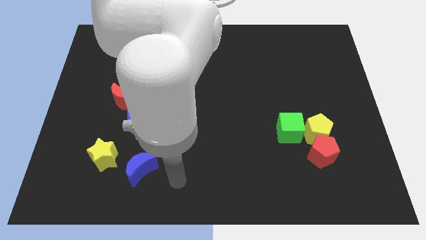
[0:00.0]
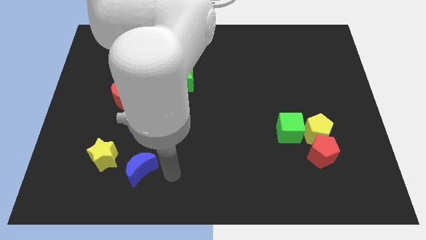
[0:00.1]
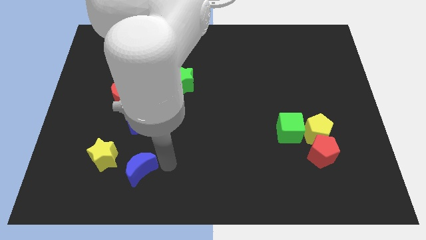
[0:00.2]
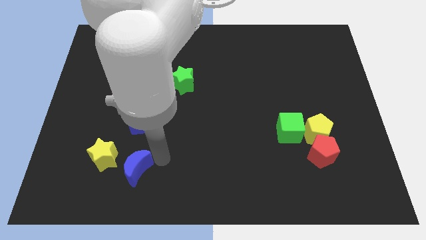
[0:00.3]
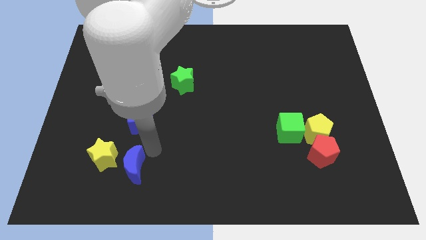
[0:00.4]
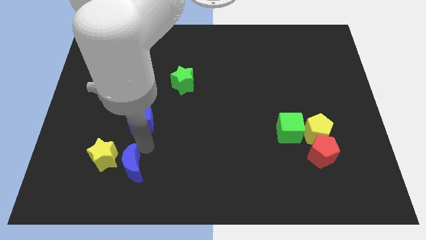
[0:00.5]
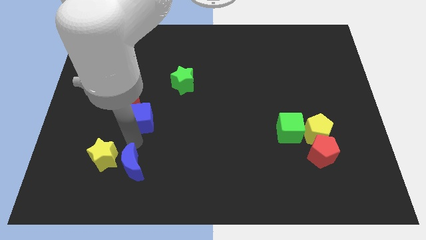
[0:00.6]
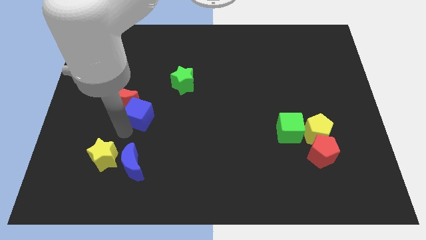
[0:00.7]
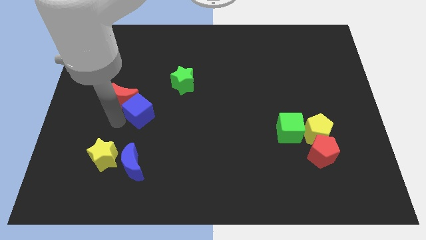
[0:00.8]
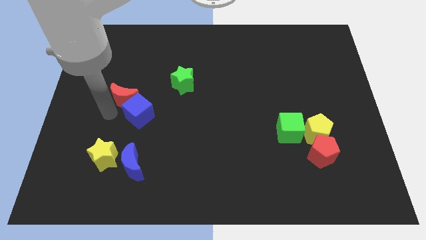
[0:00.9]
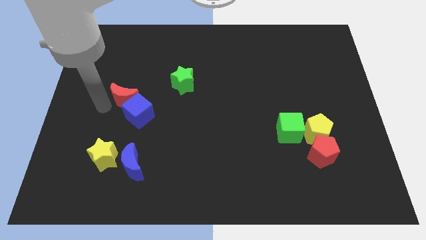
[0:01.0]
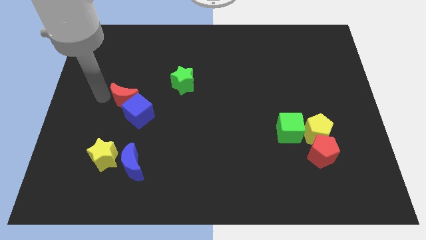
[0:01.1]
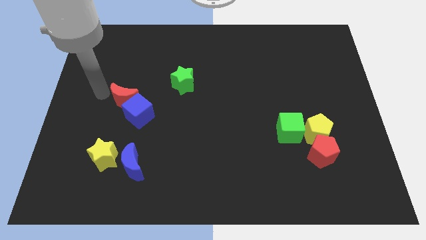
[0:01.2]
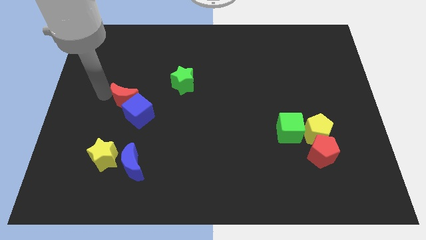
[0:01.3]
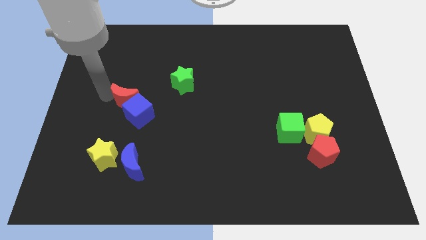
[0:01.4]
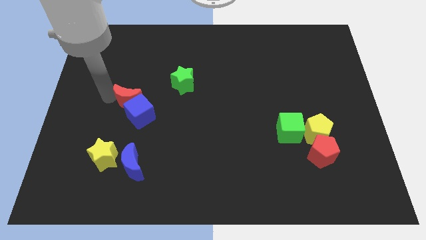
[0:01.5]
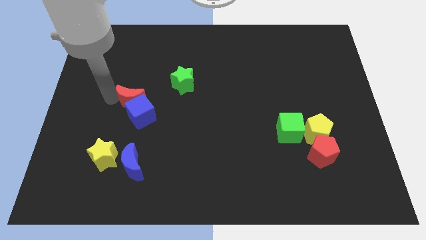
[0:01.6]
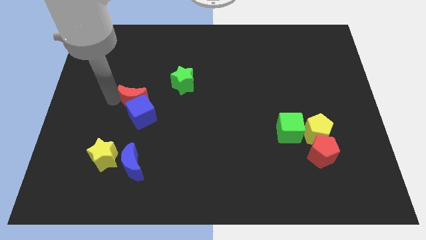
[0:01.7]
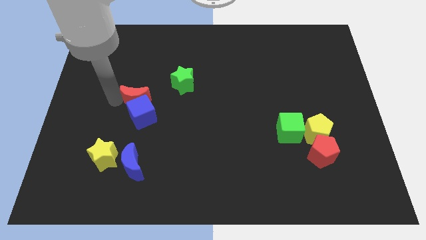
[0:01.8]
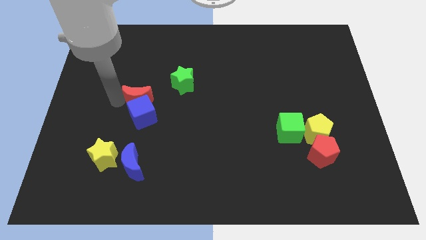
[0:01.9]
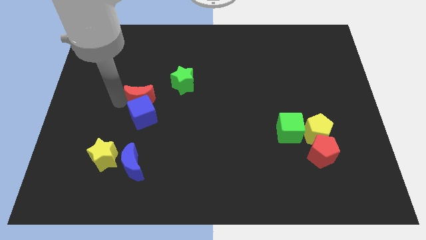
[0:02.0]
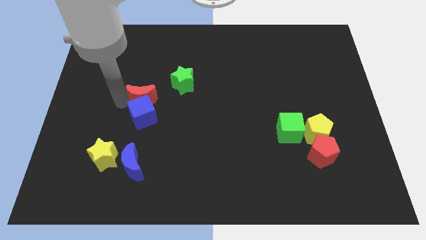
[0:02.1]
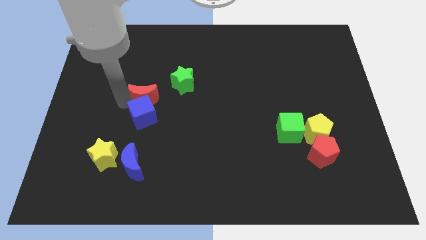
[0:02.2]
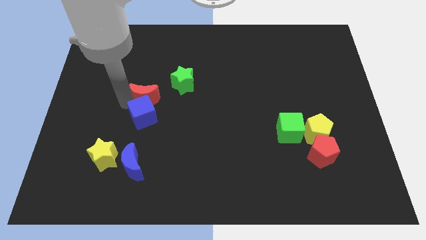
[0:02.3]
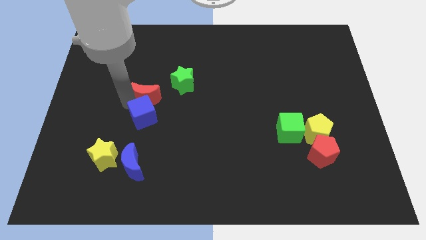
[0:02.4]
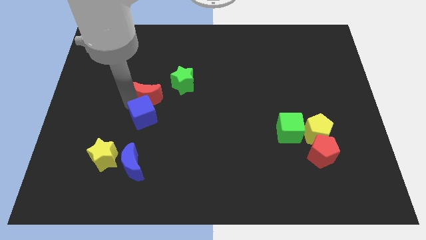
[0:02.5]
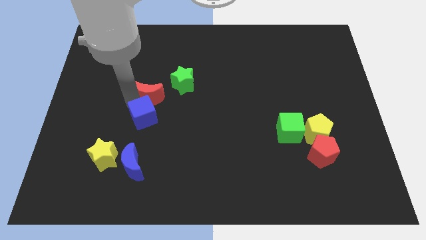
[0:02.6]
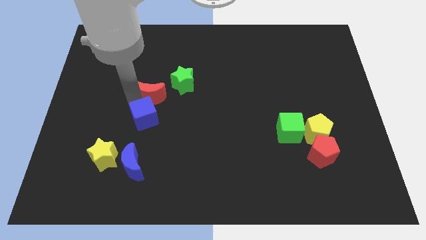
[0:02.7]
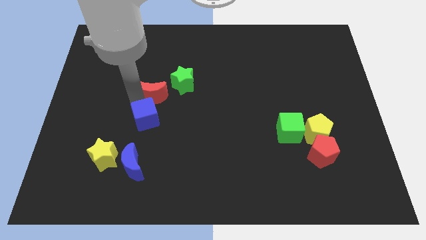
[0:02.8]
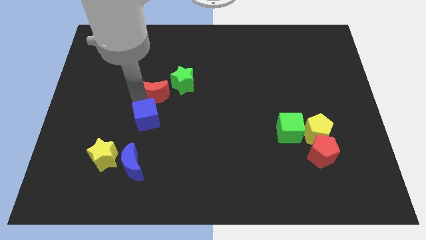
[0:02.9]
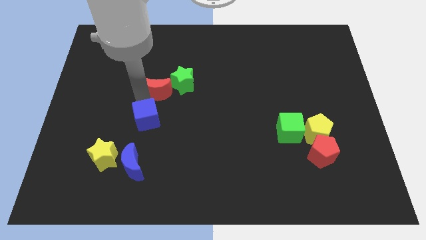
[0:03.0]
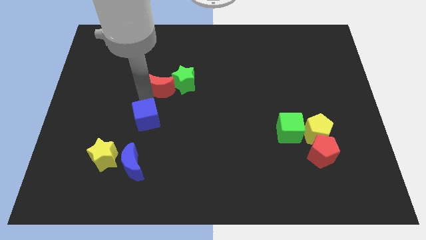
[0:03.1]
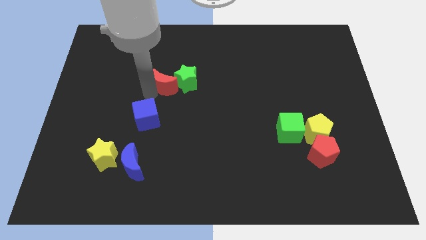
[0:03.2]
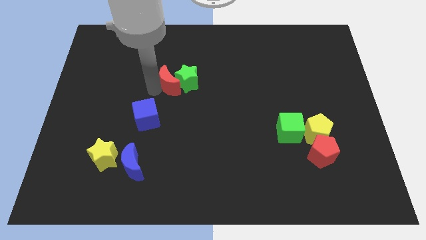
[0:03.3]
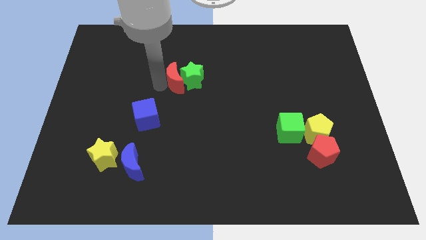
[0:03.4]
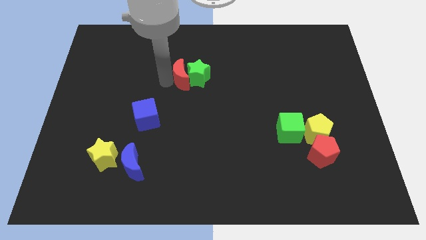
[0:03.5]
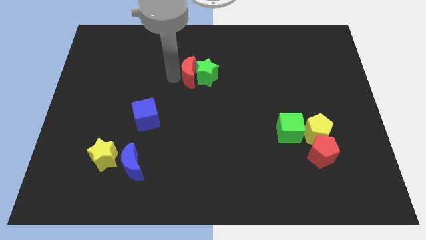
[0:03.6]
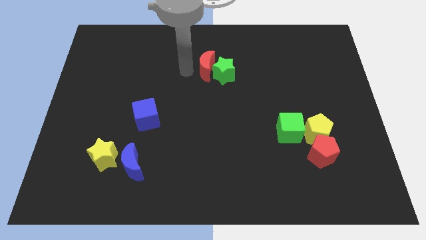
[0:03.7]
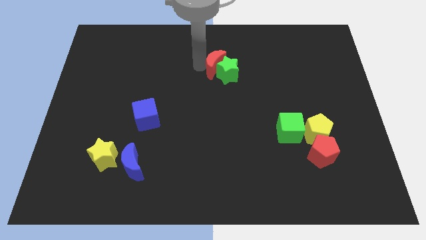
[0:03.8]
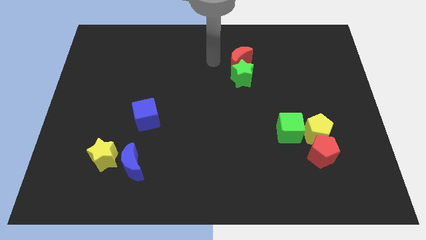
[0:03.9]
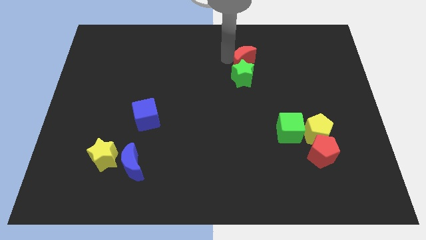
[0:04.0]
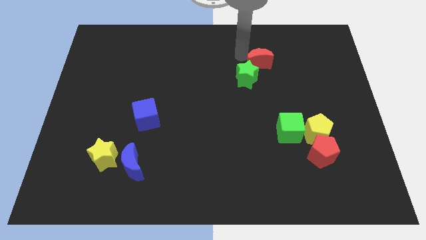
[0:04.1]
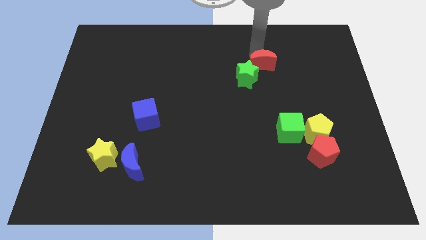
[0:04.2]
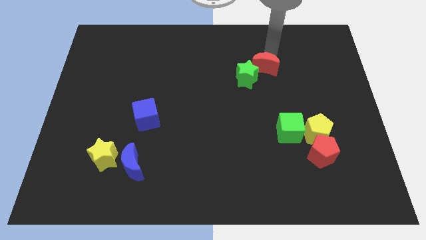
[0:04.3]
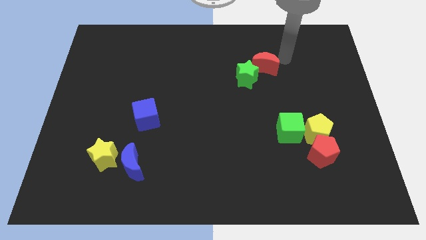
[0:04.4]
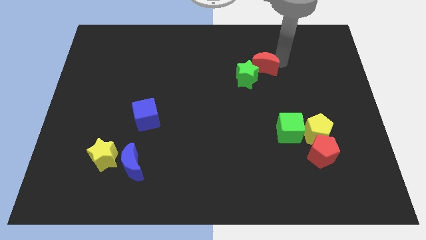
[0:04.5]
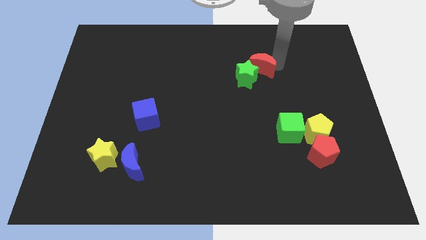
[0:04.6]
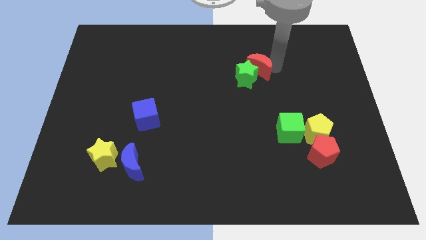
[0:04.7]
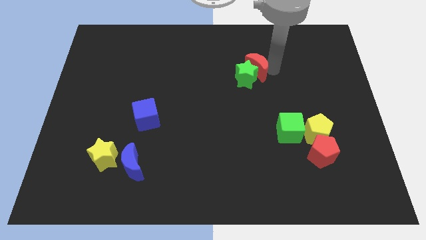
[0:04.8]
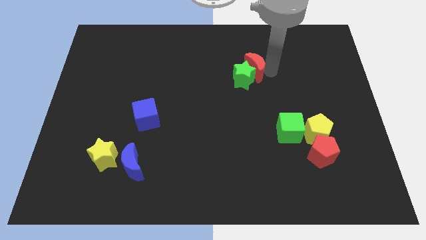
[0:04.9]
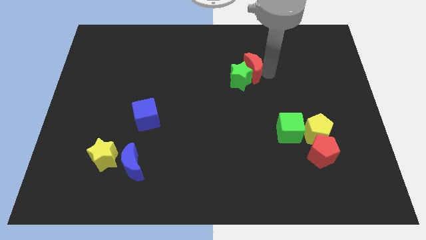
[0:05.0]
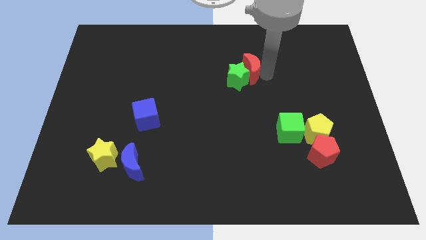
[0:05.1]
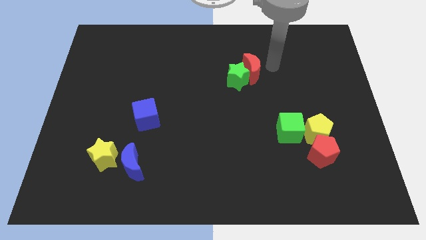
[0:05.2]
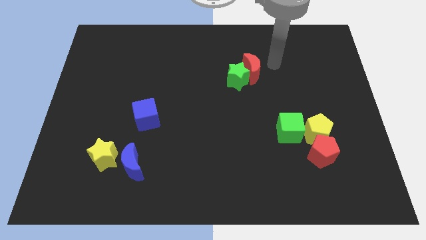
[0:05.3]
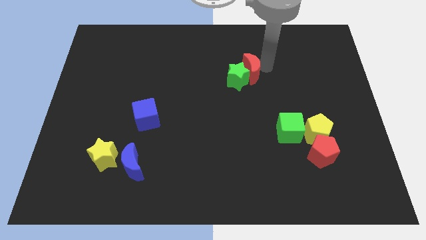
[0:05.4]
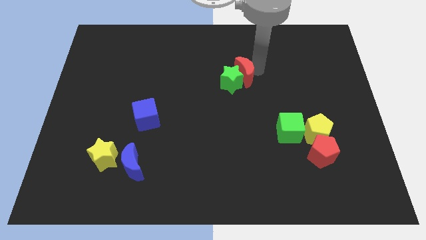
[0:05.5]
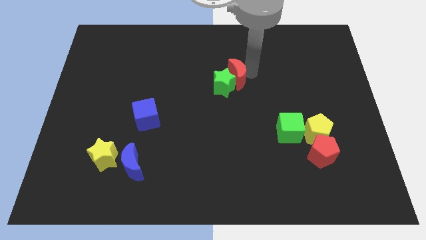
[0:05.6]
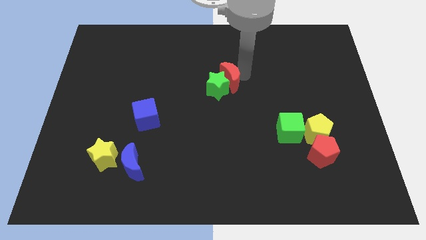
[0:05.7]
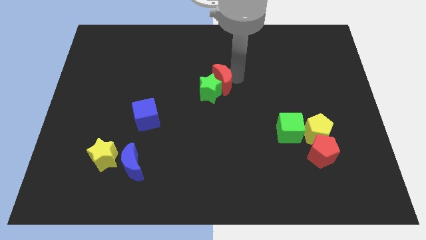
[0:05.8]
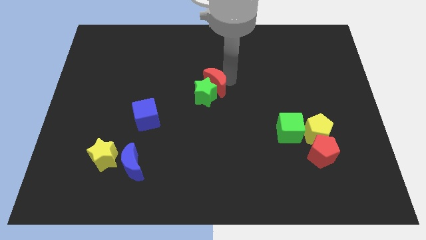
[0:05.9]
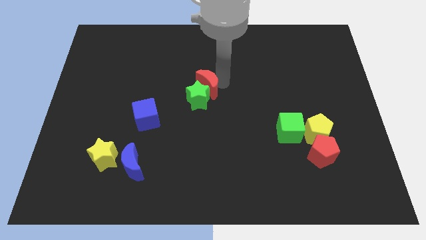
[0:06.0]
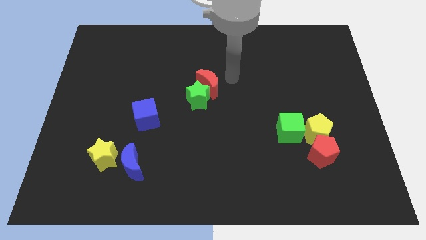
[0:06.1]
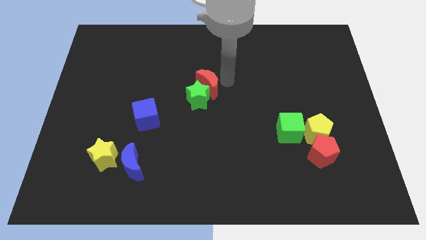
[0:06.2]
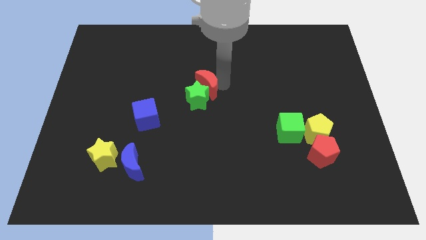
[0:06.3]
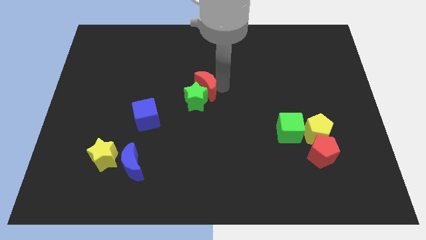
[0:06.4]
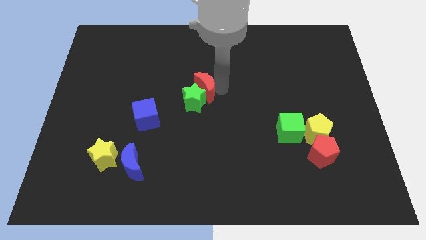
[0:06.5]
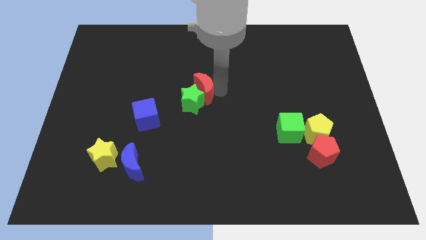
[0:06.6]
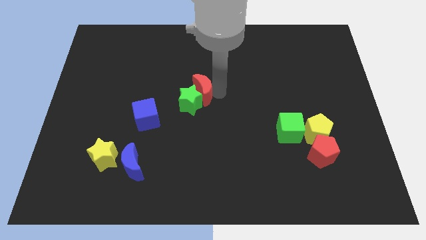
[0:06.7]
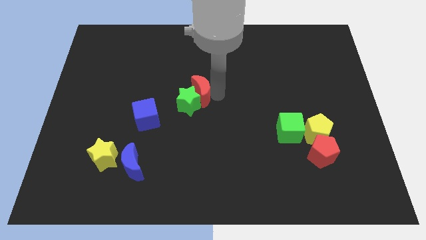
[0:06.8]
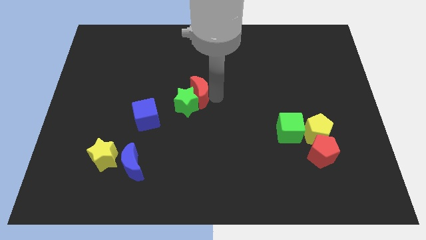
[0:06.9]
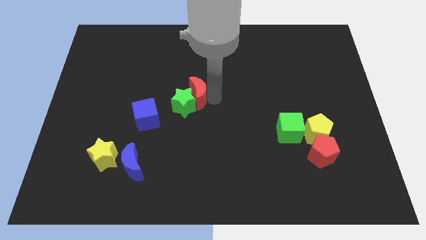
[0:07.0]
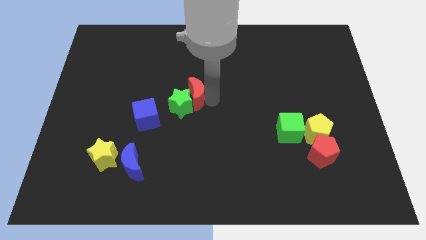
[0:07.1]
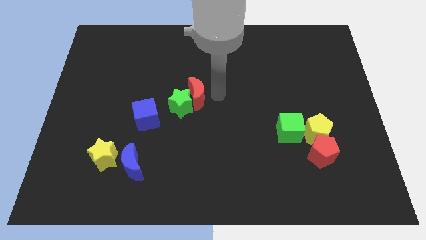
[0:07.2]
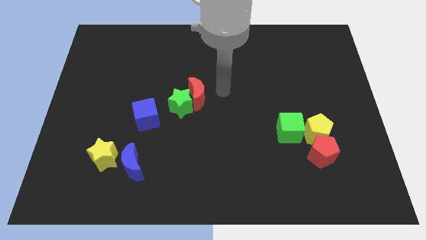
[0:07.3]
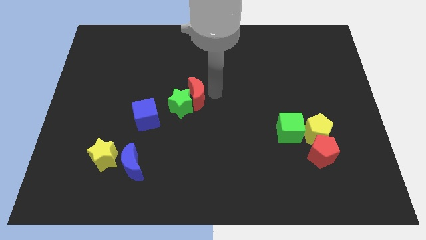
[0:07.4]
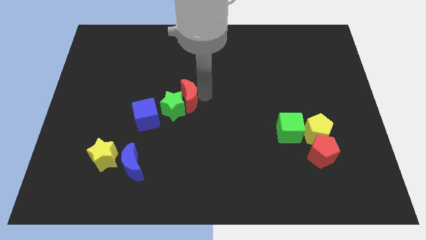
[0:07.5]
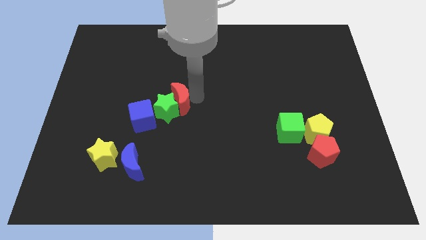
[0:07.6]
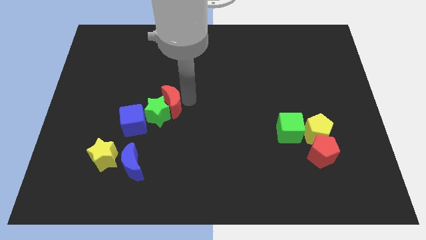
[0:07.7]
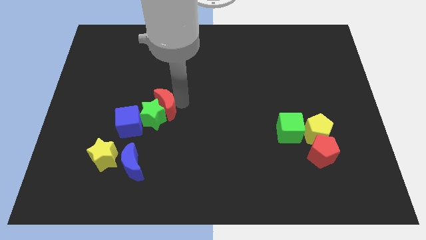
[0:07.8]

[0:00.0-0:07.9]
push the red moon down and right slightly

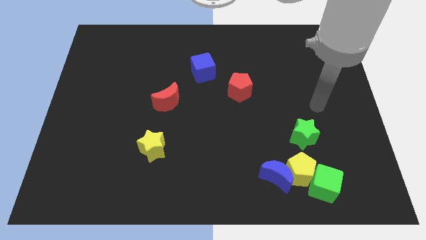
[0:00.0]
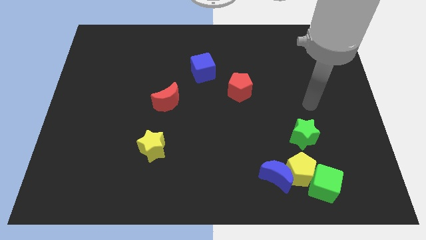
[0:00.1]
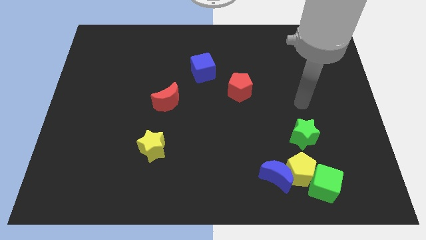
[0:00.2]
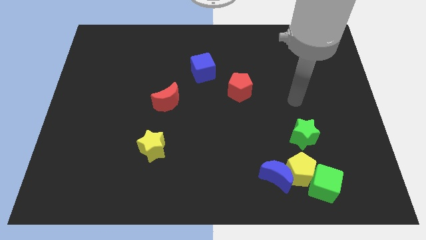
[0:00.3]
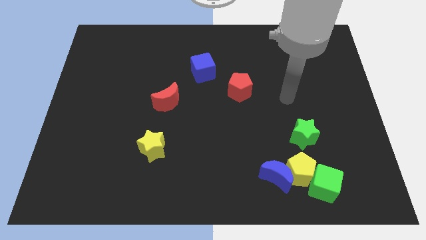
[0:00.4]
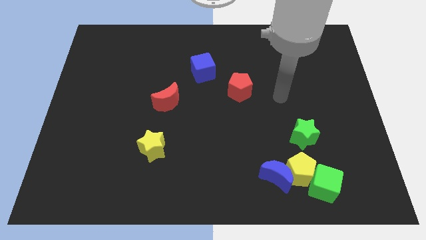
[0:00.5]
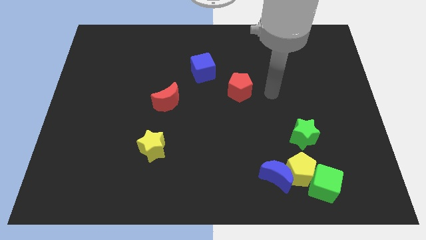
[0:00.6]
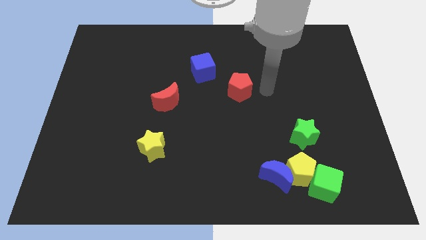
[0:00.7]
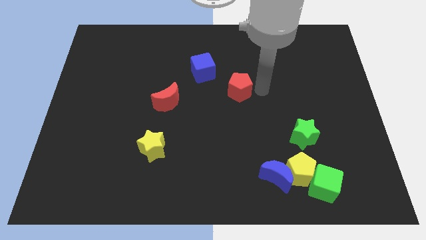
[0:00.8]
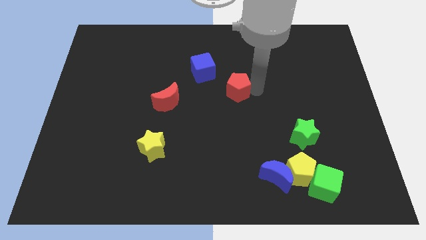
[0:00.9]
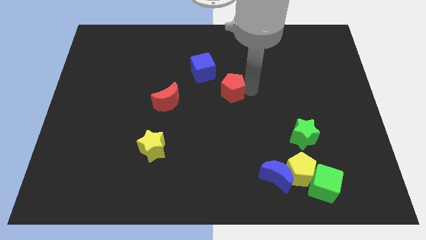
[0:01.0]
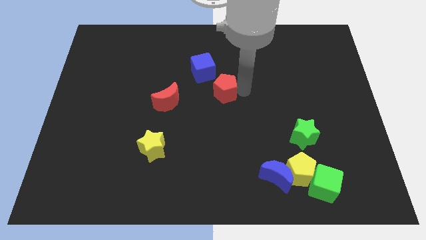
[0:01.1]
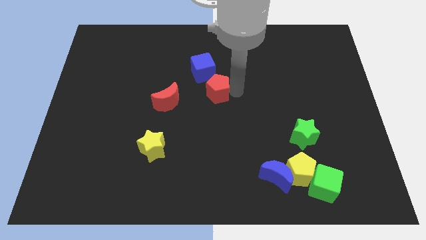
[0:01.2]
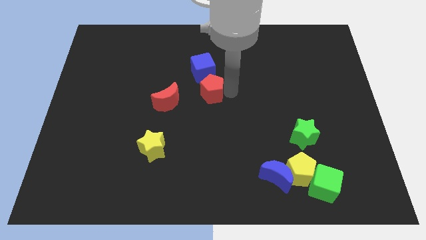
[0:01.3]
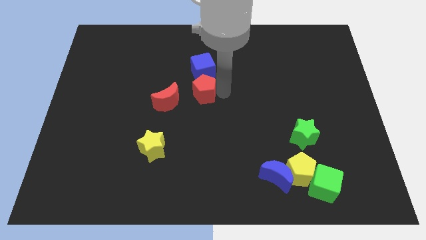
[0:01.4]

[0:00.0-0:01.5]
slide the red pentagon left a little
